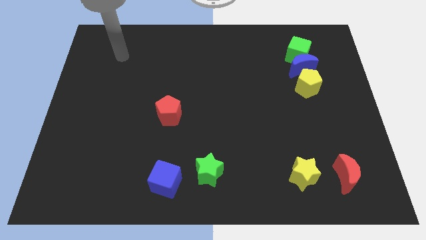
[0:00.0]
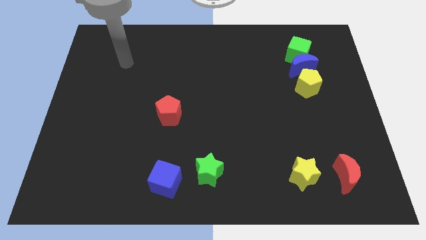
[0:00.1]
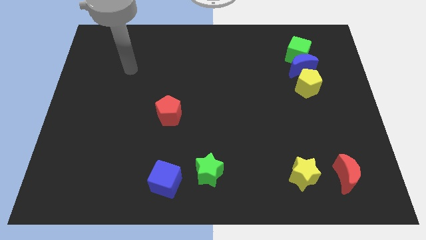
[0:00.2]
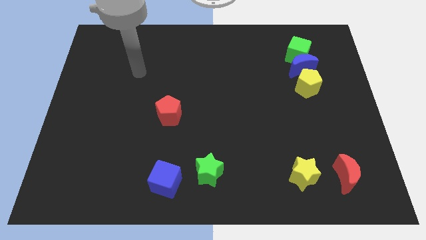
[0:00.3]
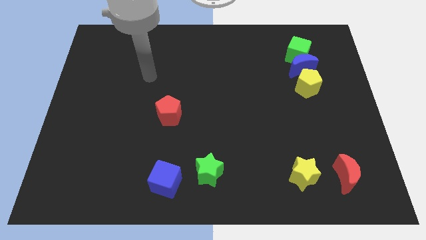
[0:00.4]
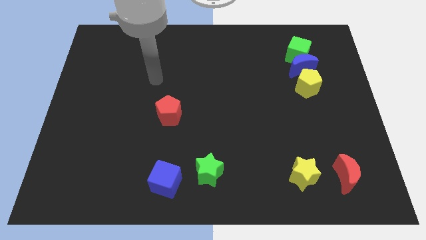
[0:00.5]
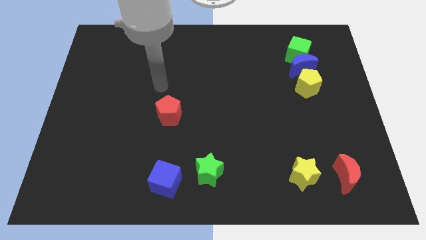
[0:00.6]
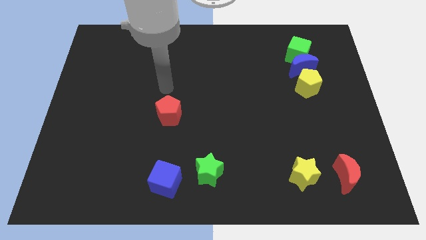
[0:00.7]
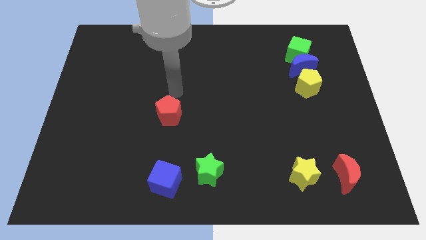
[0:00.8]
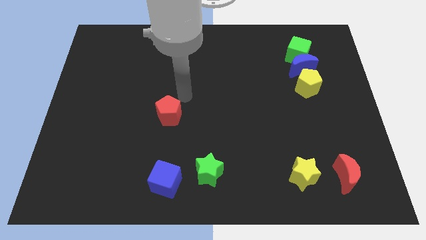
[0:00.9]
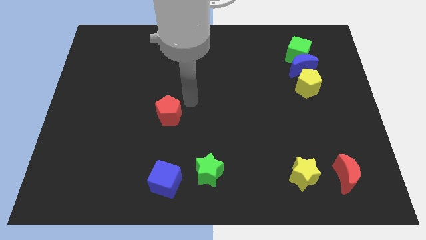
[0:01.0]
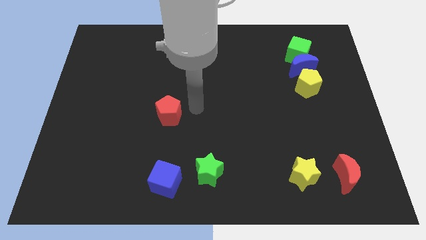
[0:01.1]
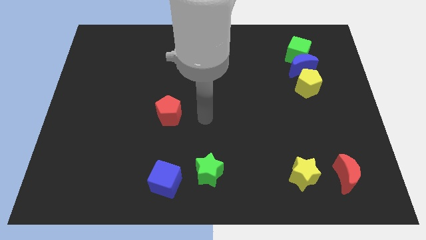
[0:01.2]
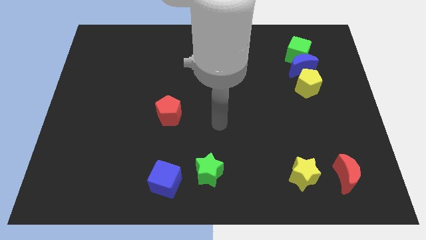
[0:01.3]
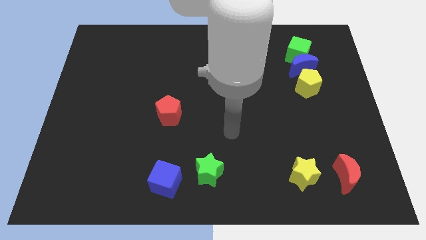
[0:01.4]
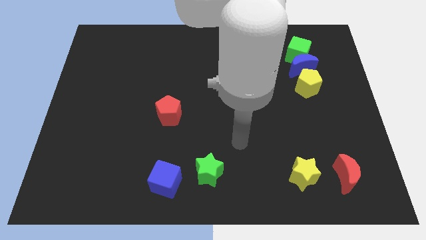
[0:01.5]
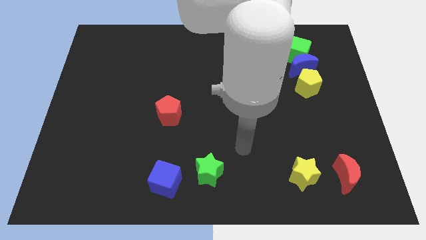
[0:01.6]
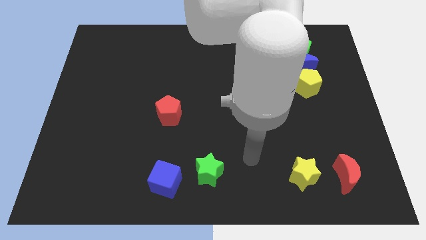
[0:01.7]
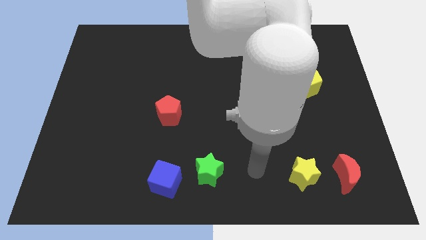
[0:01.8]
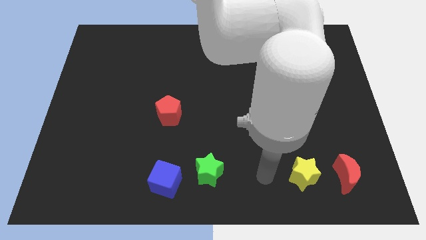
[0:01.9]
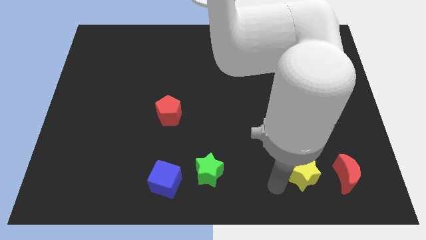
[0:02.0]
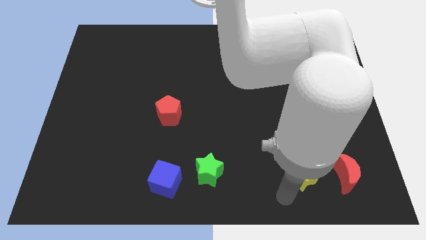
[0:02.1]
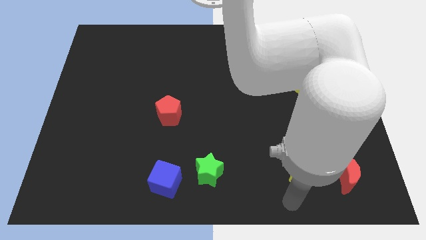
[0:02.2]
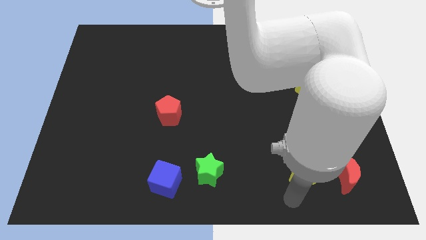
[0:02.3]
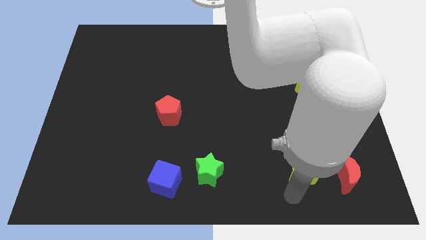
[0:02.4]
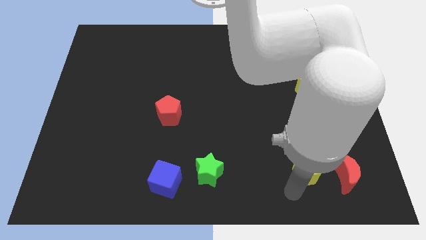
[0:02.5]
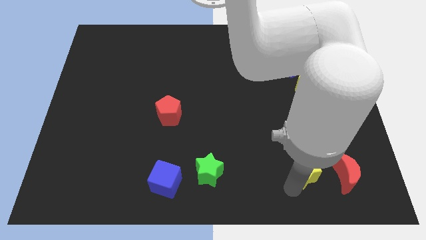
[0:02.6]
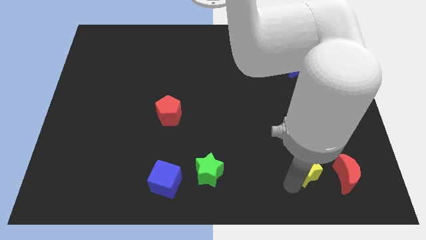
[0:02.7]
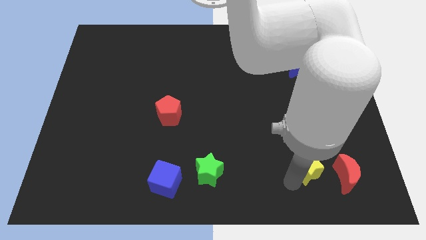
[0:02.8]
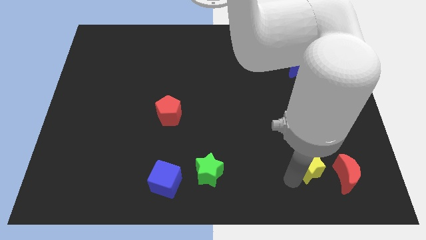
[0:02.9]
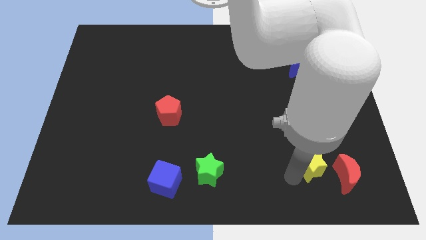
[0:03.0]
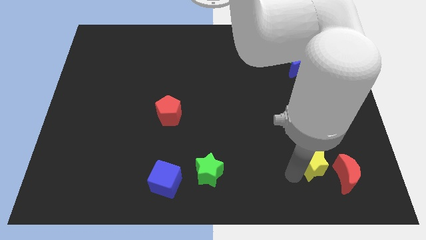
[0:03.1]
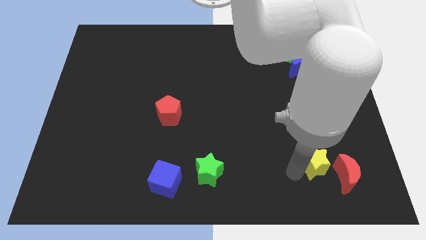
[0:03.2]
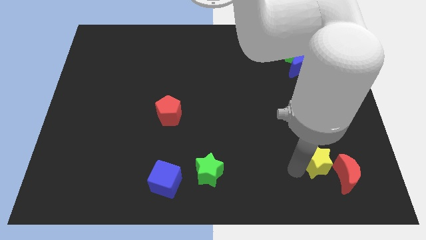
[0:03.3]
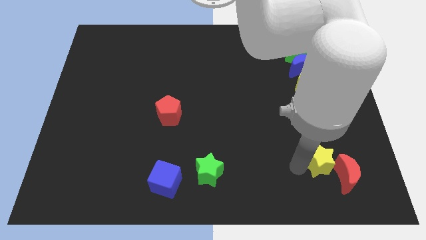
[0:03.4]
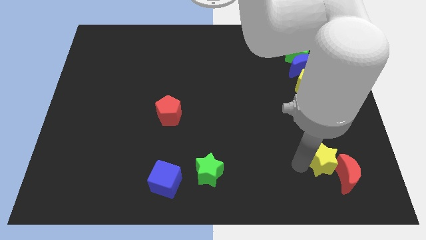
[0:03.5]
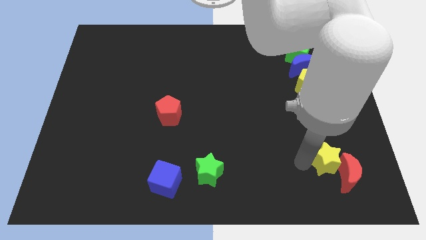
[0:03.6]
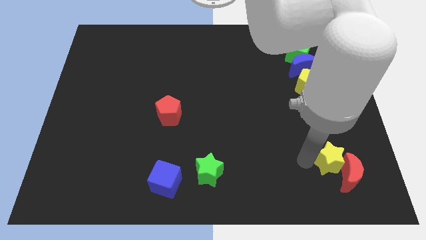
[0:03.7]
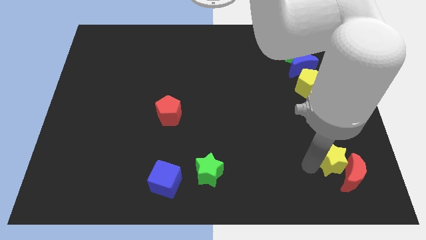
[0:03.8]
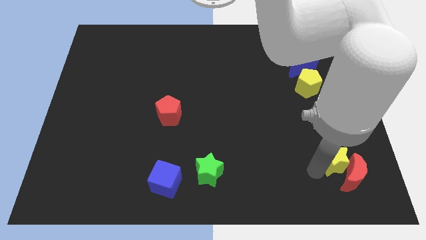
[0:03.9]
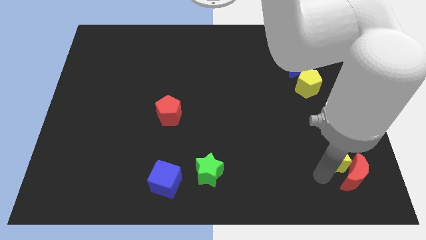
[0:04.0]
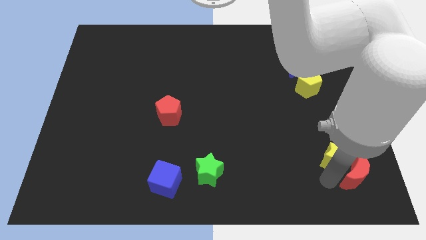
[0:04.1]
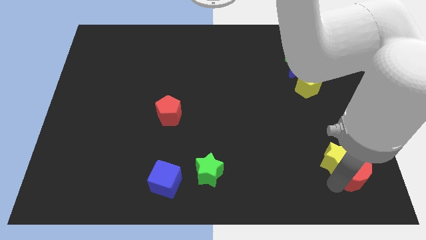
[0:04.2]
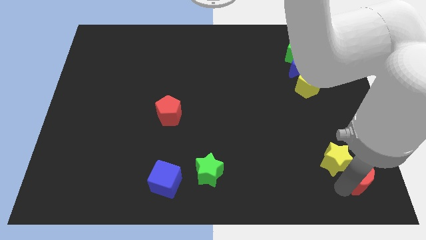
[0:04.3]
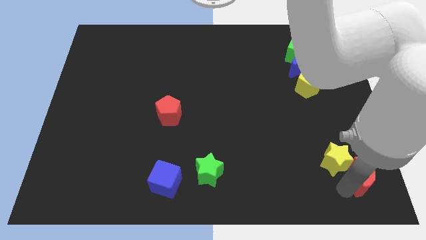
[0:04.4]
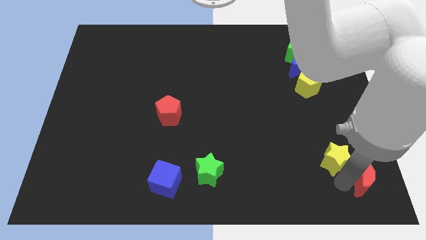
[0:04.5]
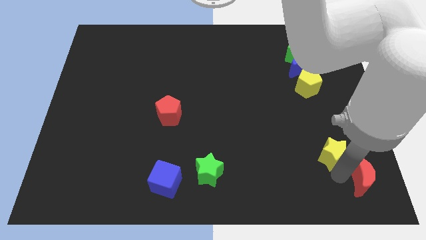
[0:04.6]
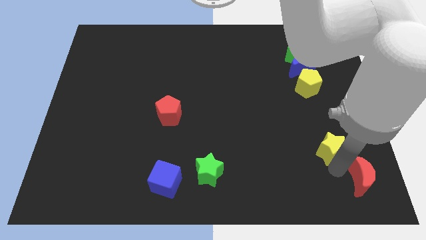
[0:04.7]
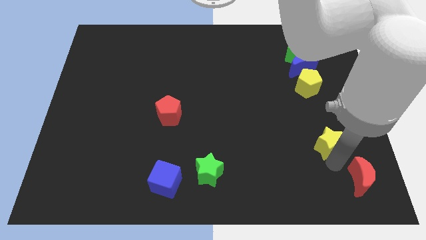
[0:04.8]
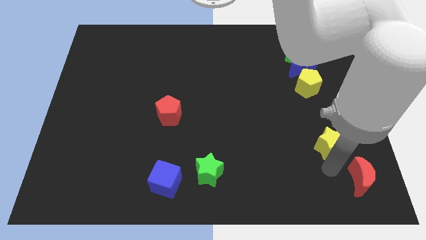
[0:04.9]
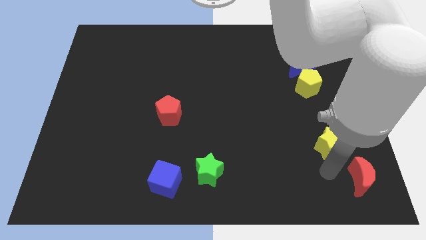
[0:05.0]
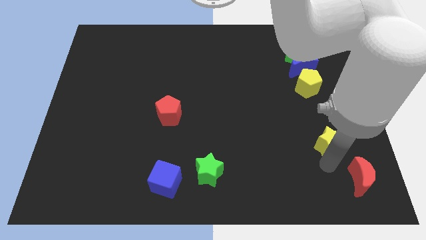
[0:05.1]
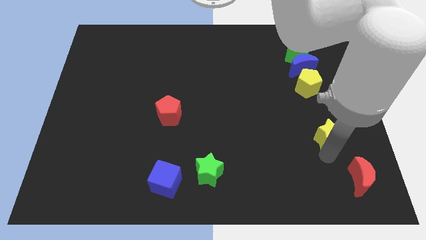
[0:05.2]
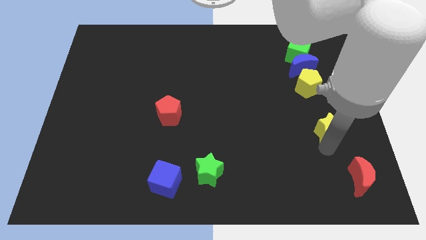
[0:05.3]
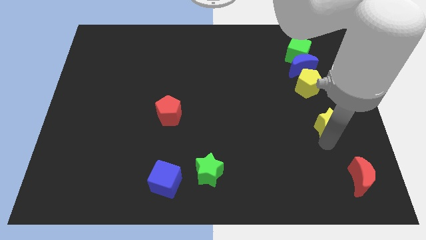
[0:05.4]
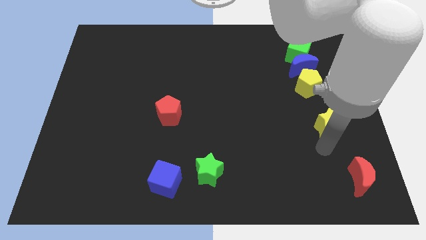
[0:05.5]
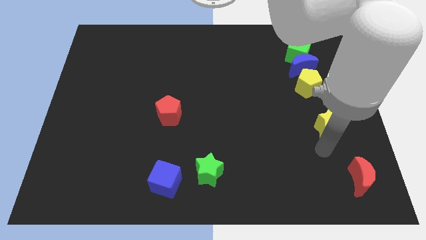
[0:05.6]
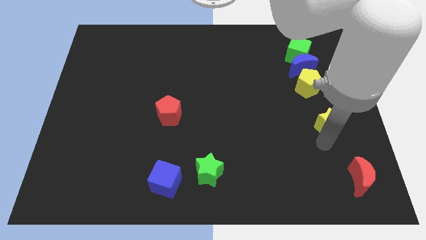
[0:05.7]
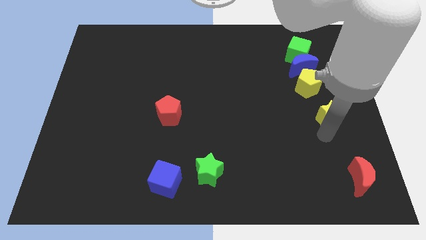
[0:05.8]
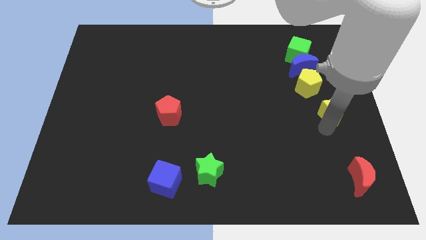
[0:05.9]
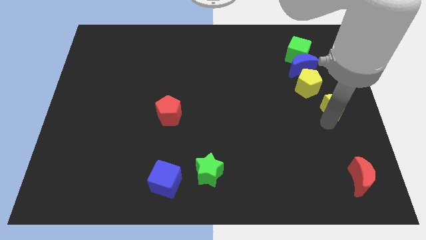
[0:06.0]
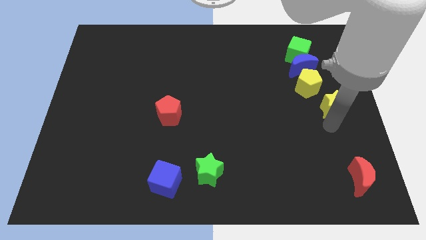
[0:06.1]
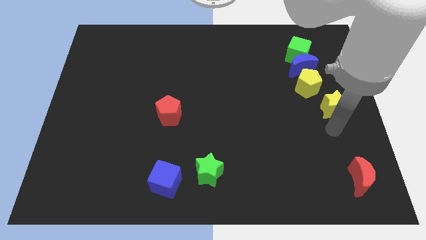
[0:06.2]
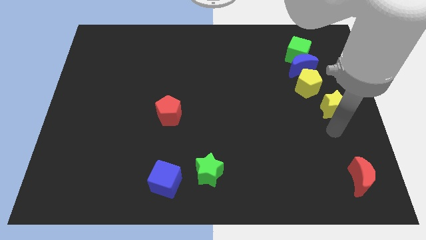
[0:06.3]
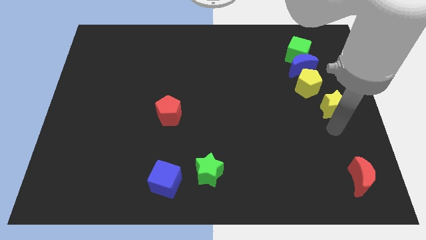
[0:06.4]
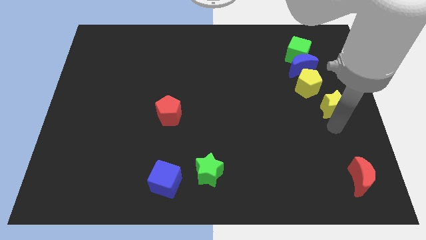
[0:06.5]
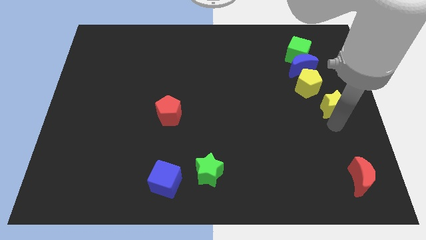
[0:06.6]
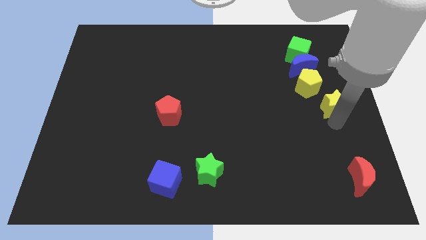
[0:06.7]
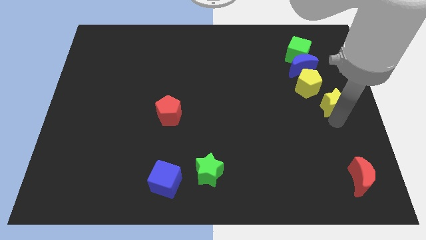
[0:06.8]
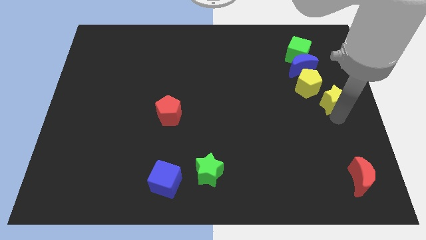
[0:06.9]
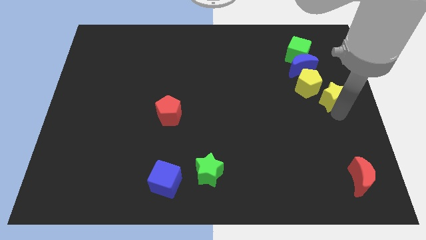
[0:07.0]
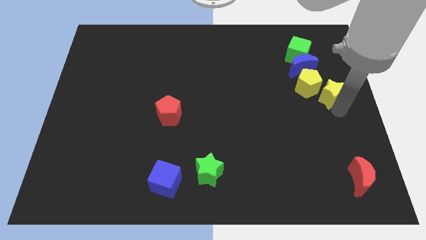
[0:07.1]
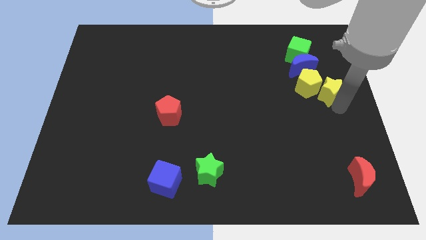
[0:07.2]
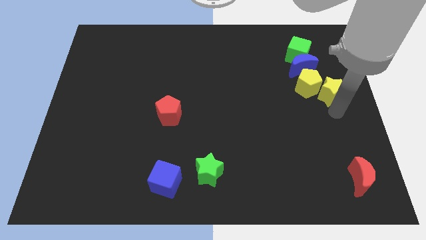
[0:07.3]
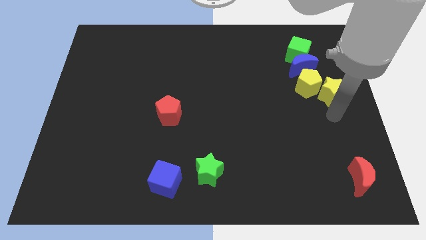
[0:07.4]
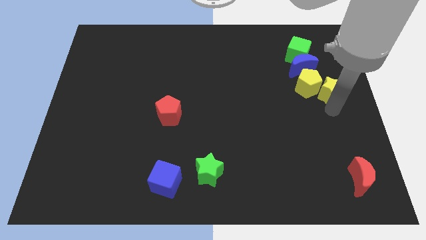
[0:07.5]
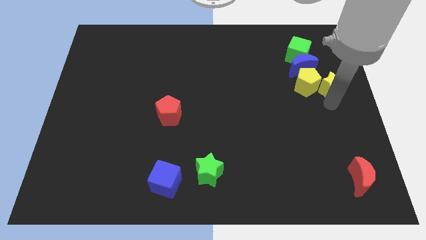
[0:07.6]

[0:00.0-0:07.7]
move the yellow star to the top right side of the yellow pentagon

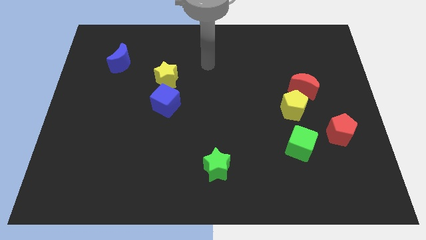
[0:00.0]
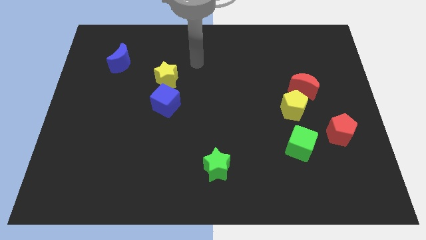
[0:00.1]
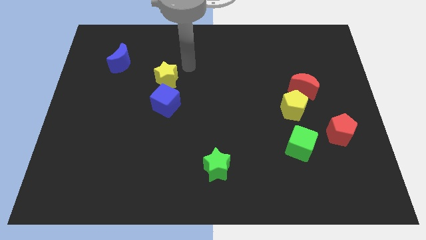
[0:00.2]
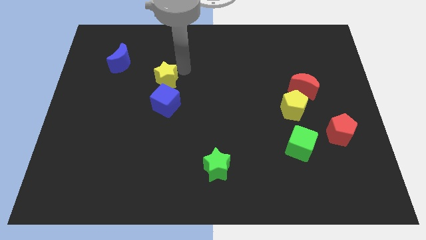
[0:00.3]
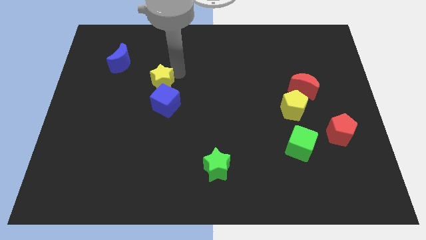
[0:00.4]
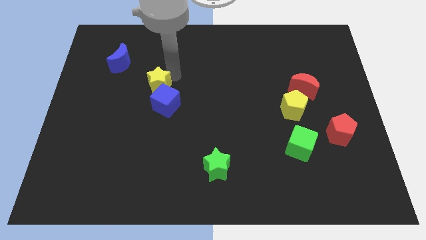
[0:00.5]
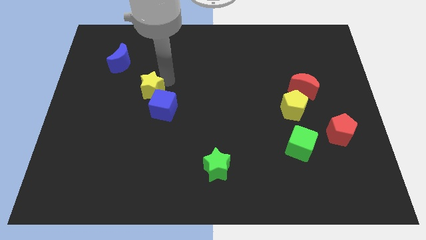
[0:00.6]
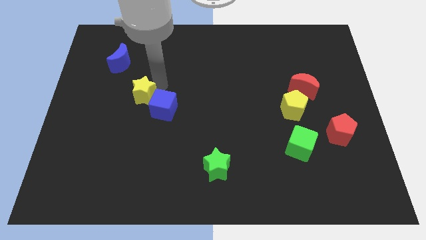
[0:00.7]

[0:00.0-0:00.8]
push the yellow star just left of the blue cube
